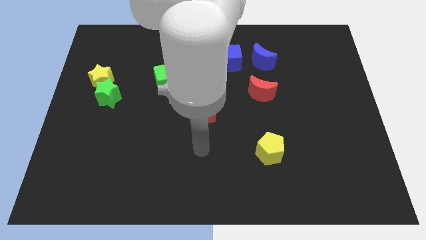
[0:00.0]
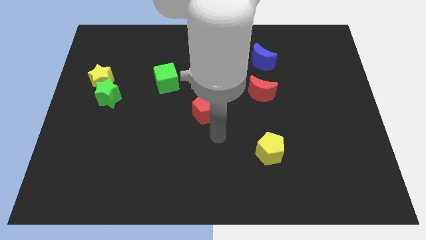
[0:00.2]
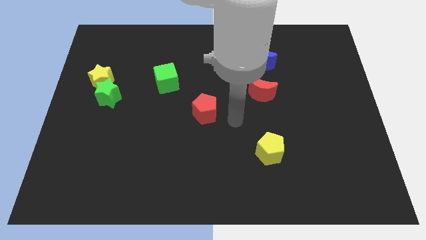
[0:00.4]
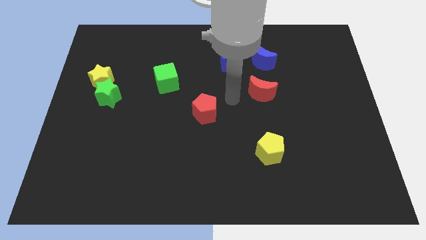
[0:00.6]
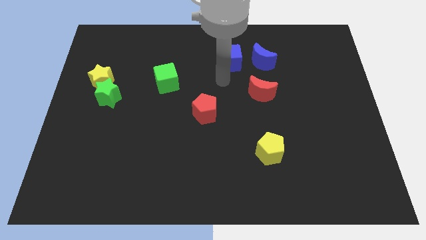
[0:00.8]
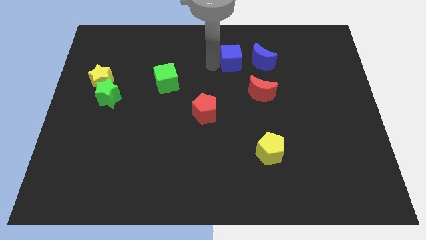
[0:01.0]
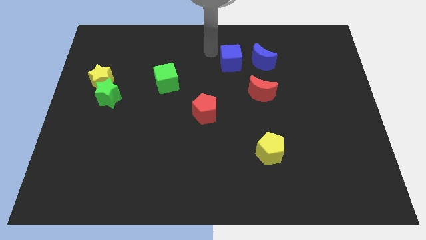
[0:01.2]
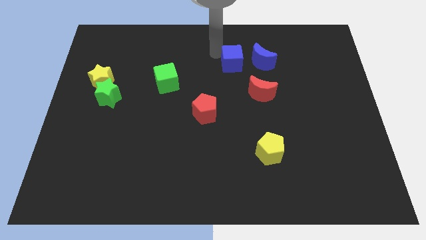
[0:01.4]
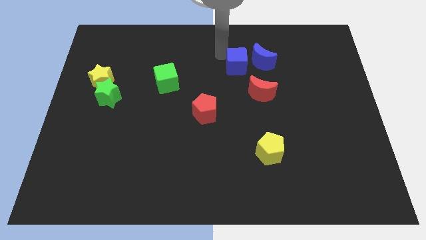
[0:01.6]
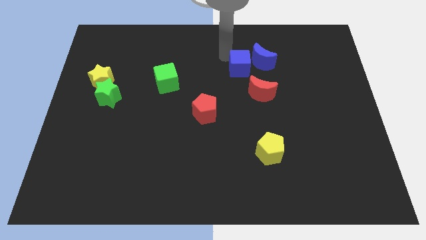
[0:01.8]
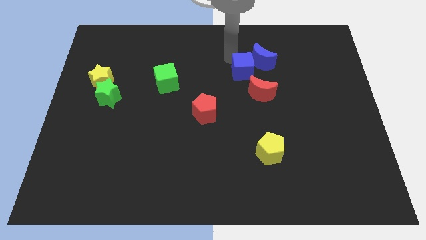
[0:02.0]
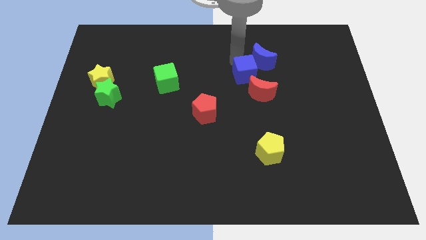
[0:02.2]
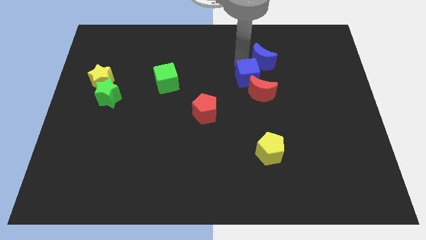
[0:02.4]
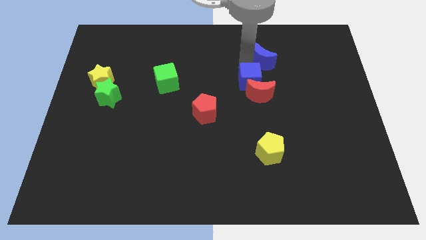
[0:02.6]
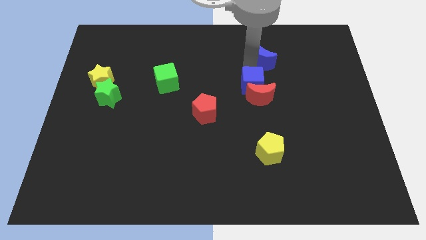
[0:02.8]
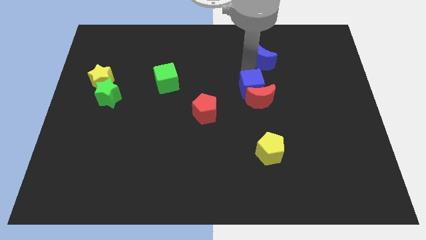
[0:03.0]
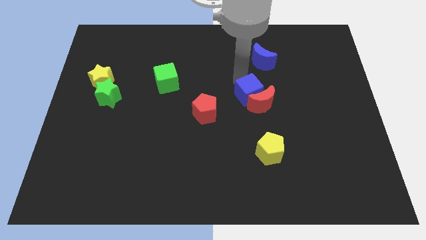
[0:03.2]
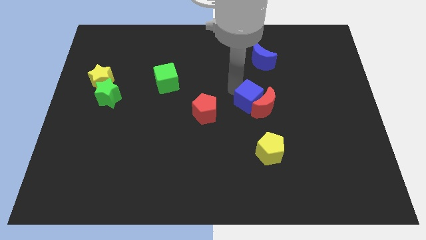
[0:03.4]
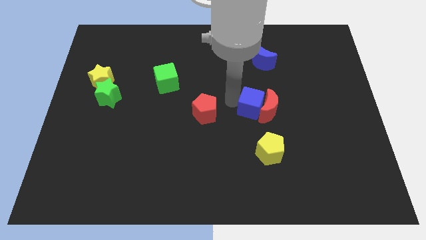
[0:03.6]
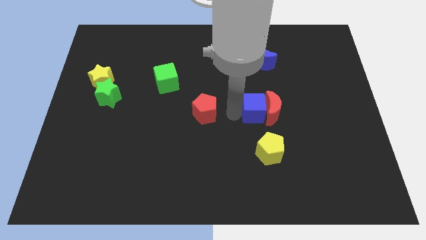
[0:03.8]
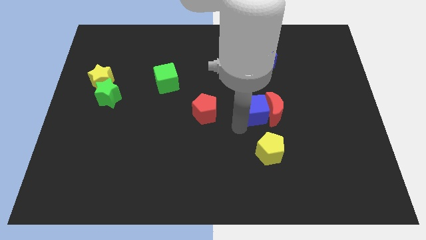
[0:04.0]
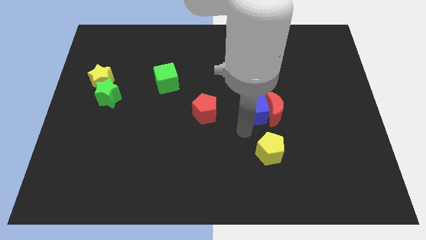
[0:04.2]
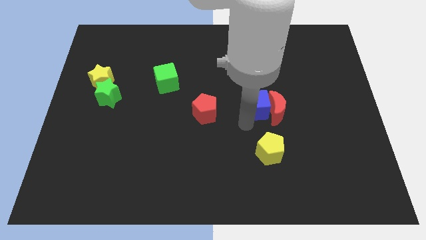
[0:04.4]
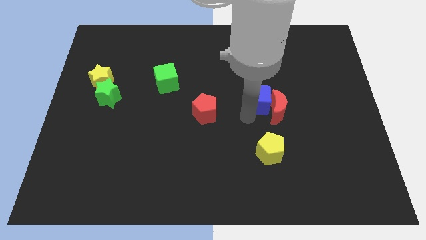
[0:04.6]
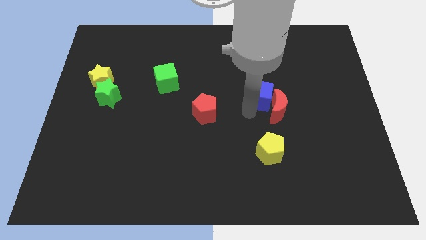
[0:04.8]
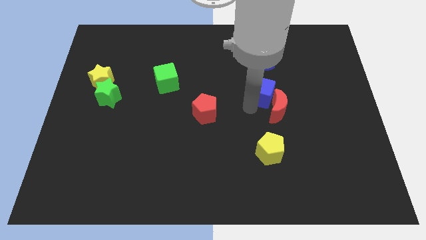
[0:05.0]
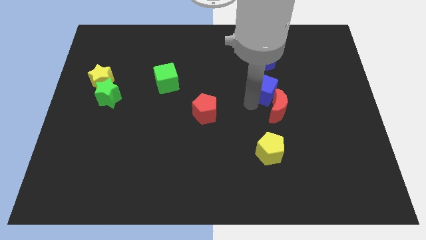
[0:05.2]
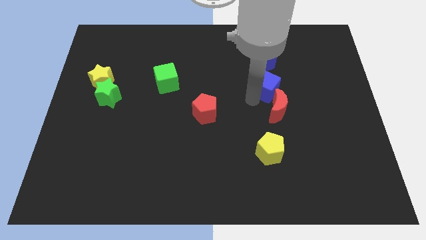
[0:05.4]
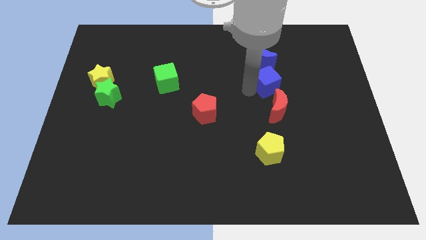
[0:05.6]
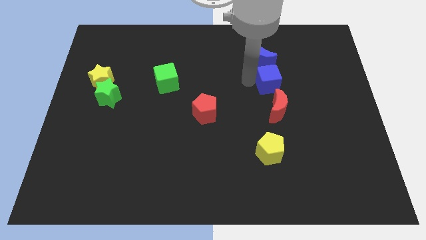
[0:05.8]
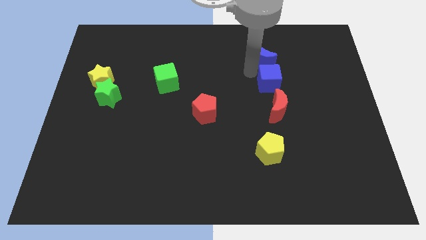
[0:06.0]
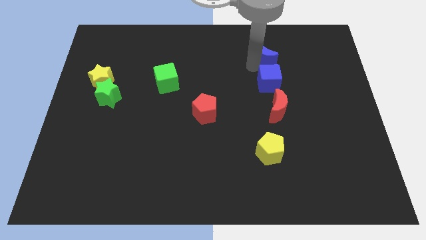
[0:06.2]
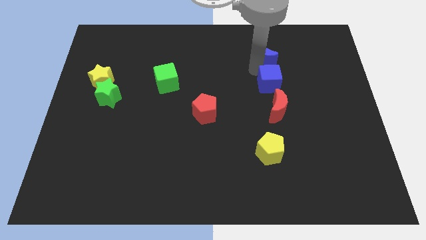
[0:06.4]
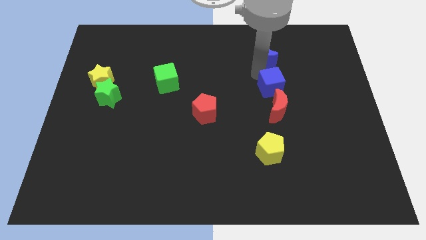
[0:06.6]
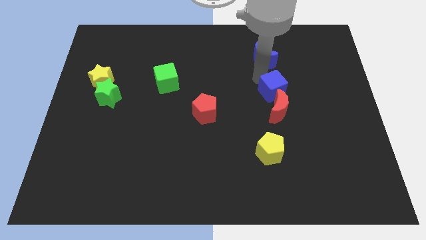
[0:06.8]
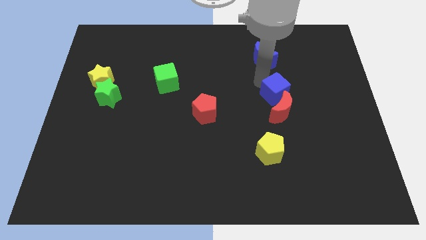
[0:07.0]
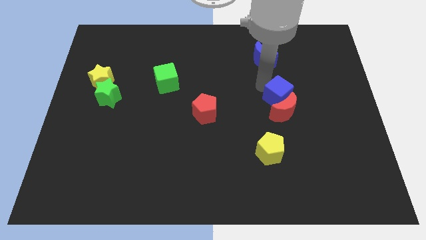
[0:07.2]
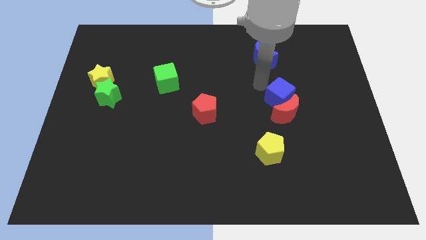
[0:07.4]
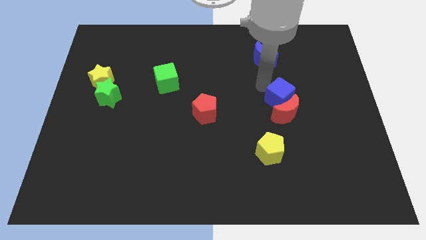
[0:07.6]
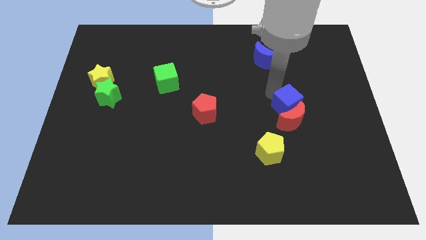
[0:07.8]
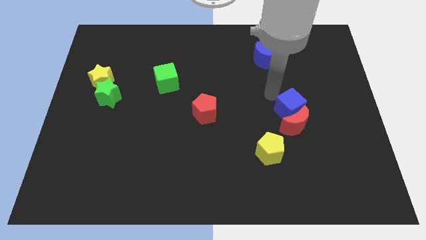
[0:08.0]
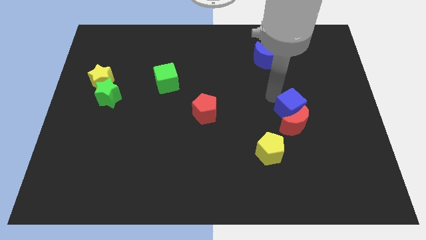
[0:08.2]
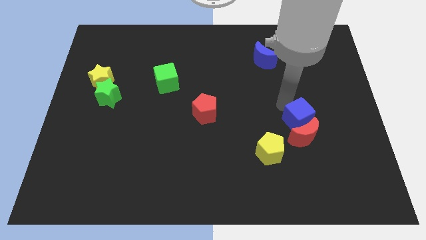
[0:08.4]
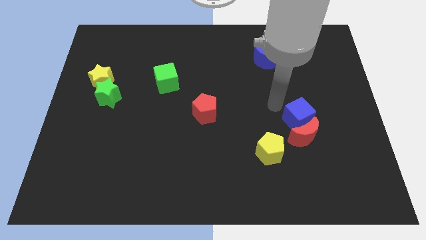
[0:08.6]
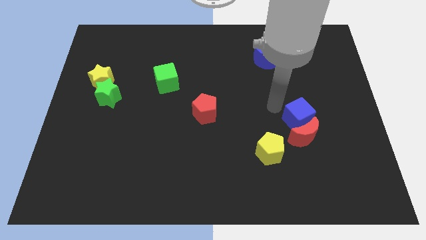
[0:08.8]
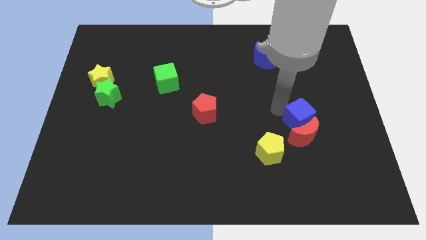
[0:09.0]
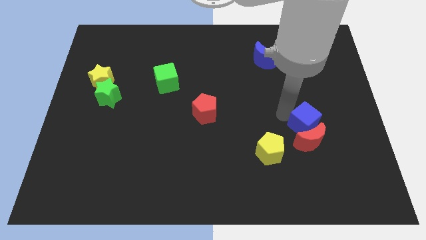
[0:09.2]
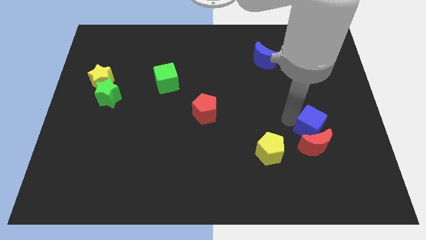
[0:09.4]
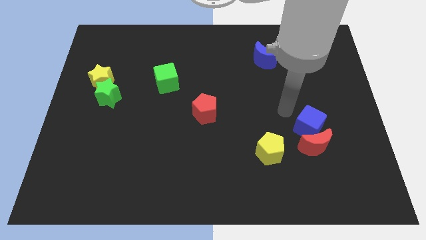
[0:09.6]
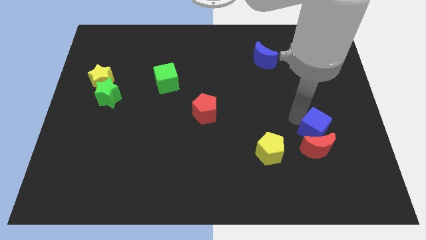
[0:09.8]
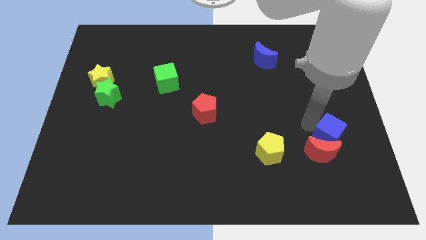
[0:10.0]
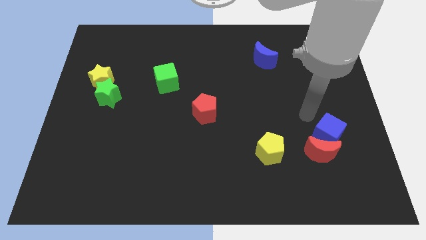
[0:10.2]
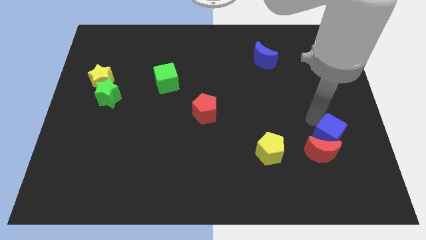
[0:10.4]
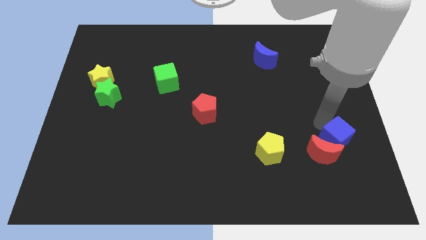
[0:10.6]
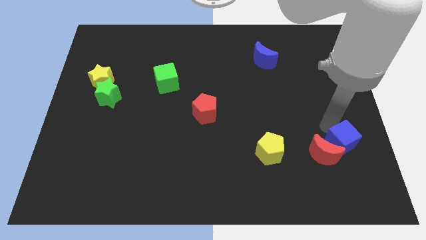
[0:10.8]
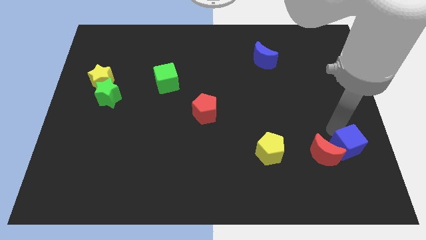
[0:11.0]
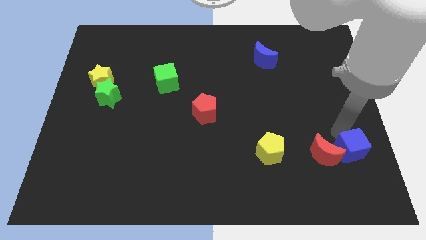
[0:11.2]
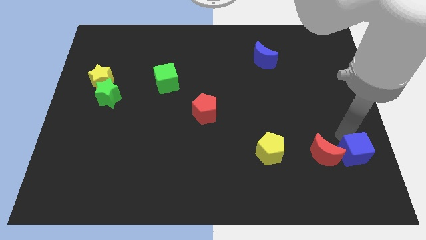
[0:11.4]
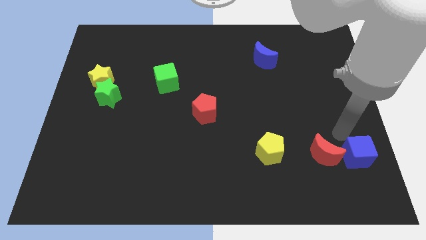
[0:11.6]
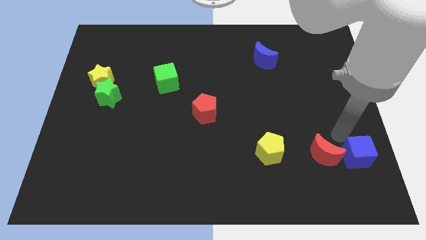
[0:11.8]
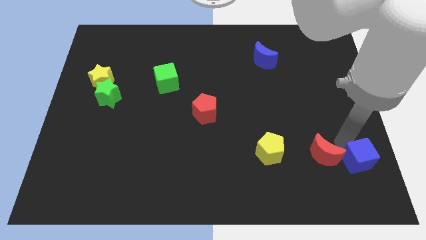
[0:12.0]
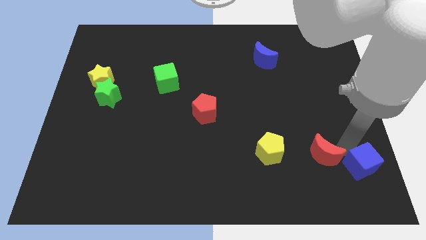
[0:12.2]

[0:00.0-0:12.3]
push the blue cube to the lower right corner

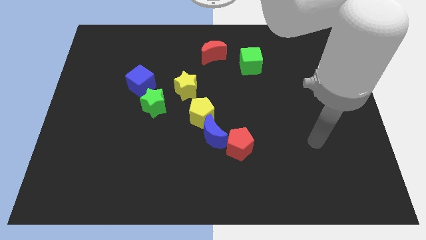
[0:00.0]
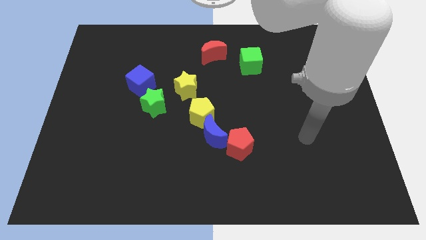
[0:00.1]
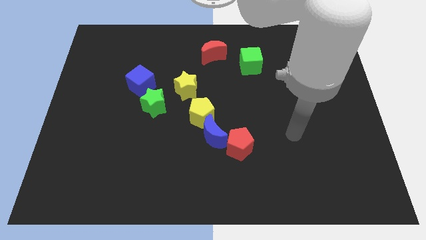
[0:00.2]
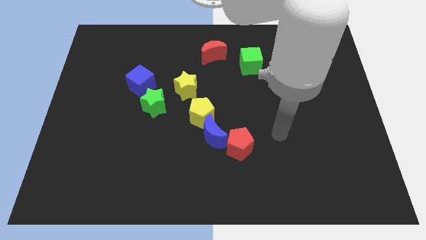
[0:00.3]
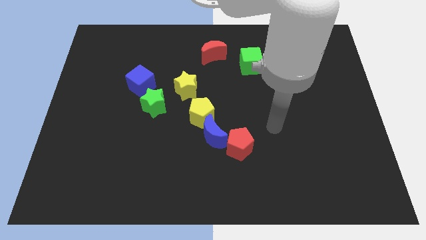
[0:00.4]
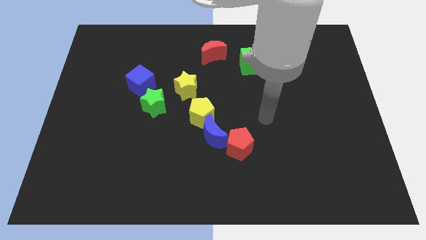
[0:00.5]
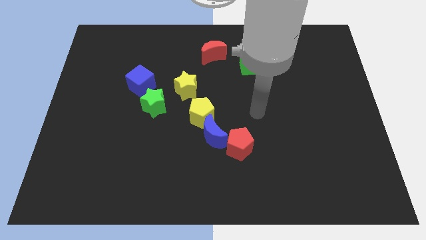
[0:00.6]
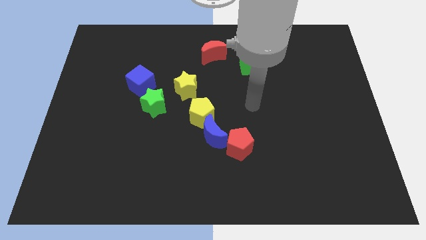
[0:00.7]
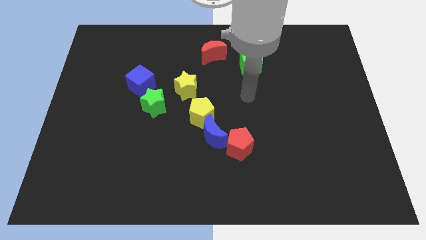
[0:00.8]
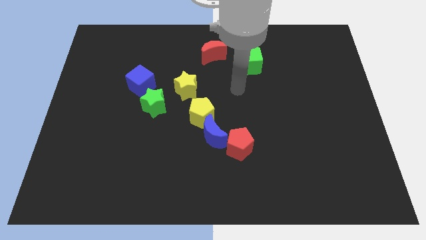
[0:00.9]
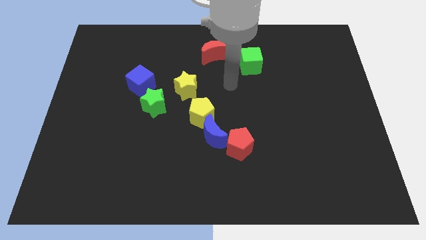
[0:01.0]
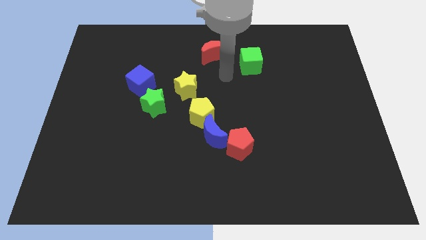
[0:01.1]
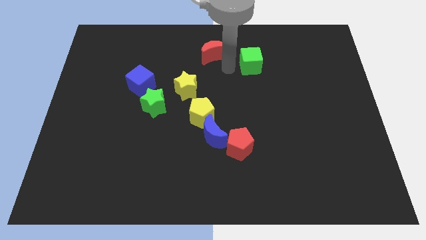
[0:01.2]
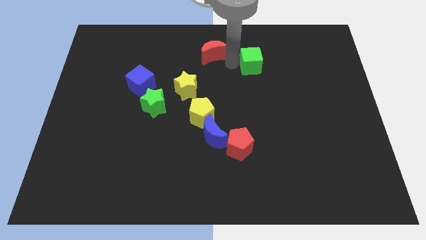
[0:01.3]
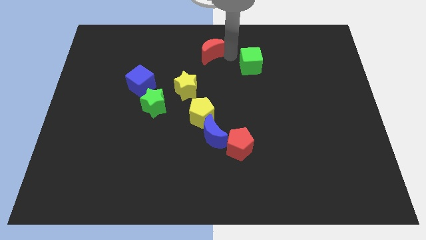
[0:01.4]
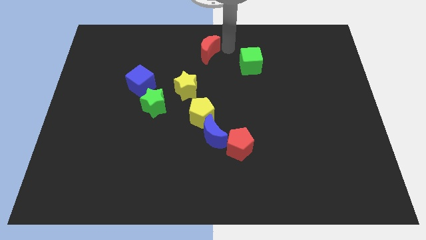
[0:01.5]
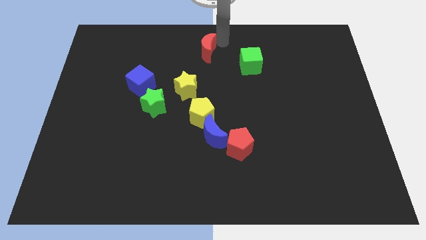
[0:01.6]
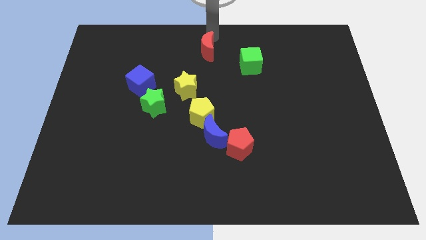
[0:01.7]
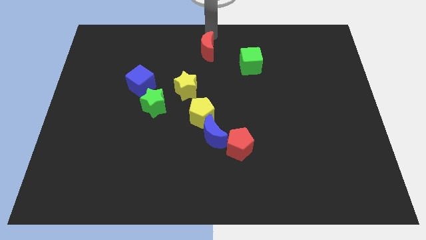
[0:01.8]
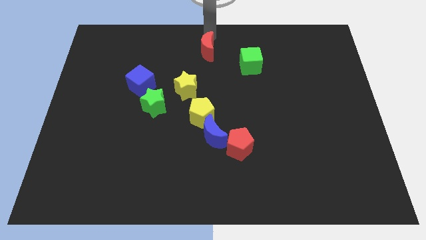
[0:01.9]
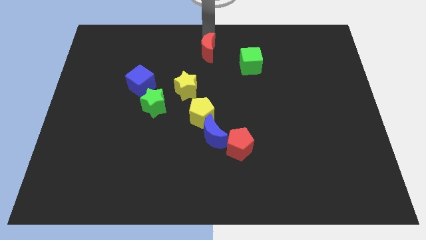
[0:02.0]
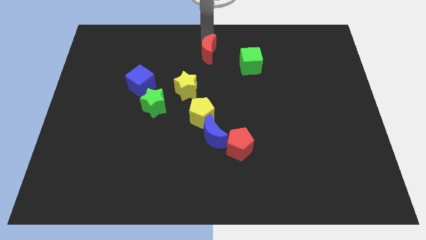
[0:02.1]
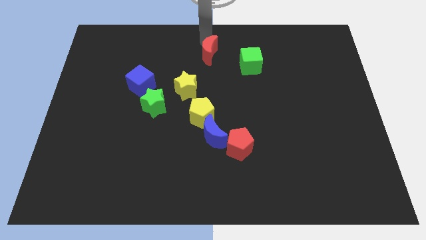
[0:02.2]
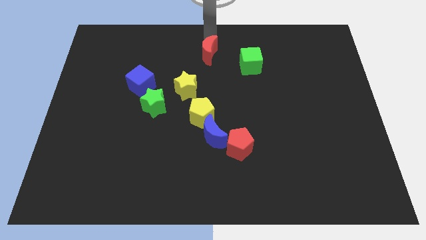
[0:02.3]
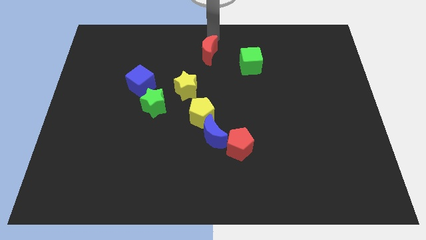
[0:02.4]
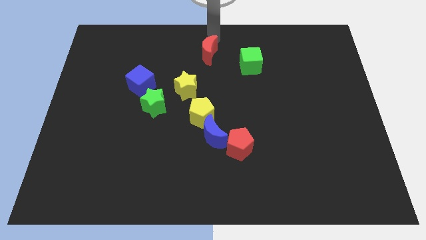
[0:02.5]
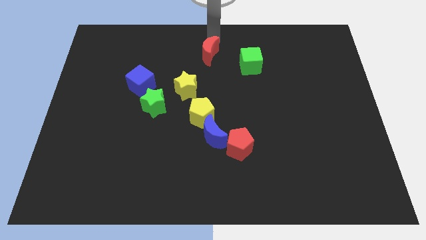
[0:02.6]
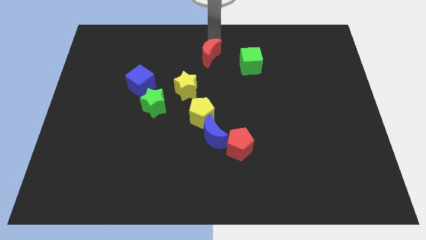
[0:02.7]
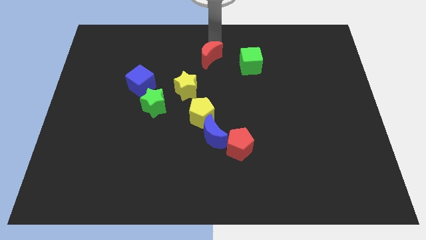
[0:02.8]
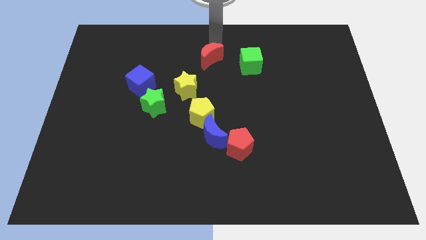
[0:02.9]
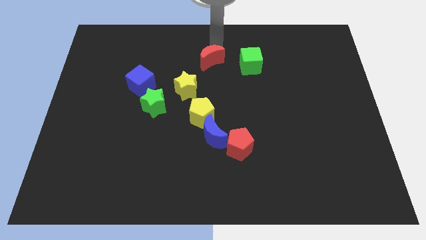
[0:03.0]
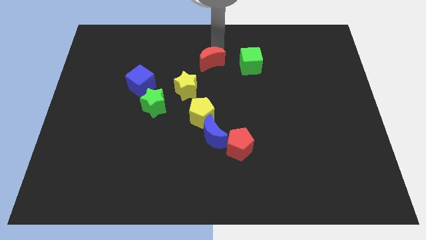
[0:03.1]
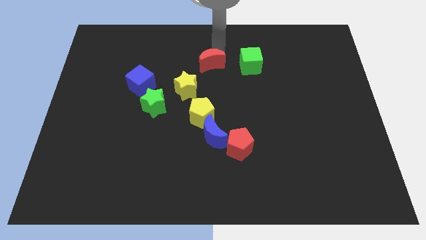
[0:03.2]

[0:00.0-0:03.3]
slide the red moon to the center
